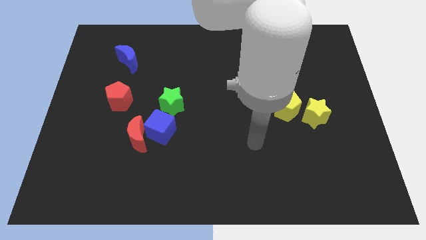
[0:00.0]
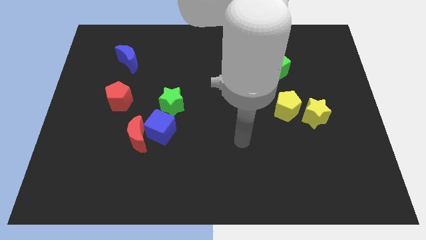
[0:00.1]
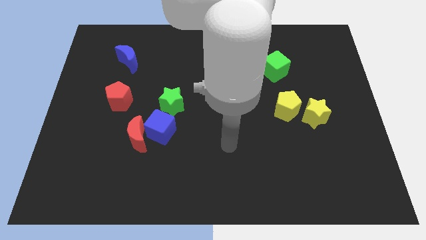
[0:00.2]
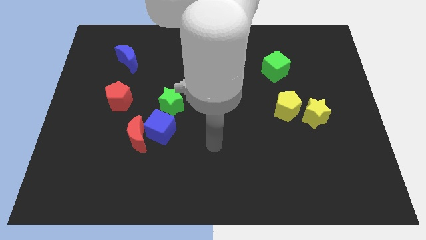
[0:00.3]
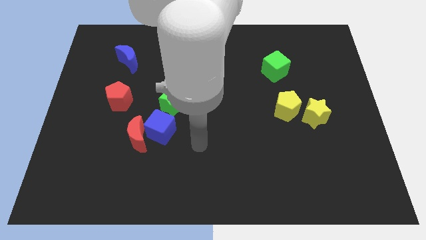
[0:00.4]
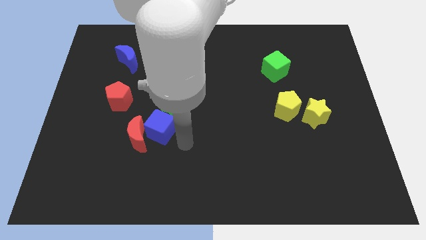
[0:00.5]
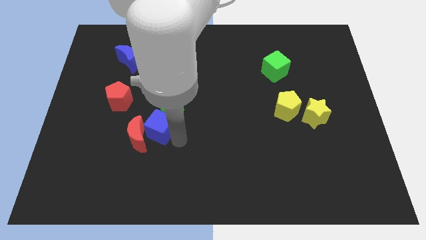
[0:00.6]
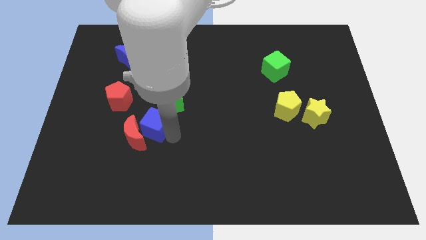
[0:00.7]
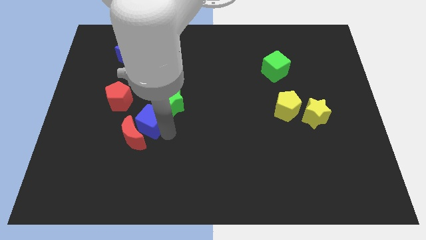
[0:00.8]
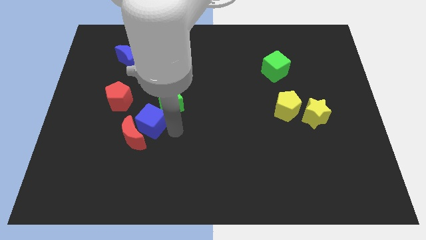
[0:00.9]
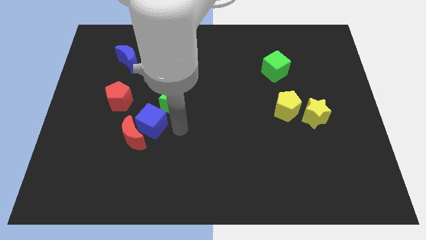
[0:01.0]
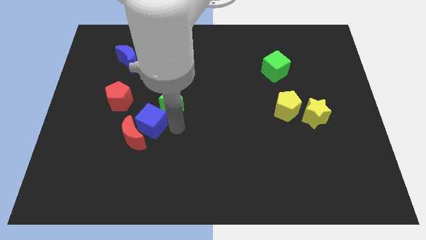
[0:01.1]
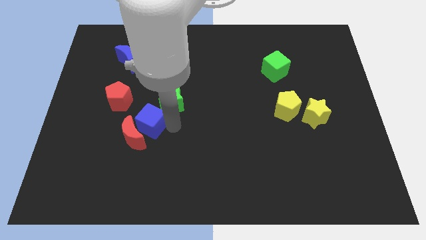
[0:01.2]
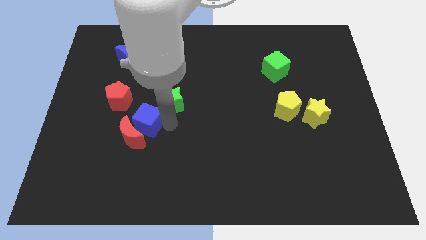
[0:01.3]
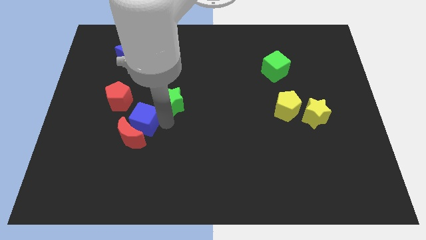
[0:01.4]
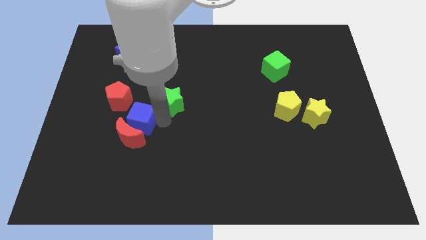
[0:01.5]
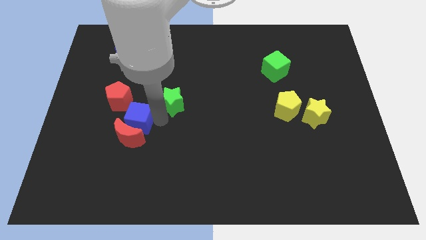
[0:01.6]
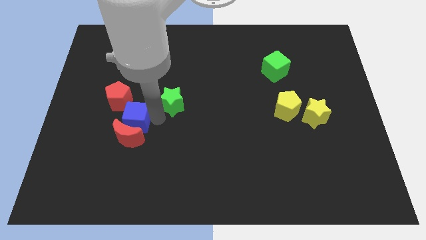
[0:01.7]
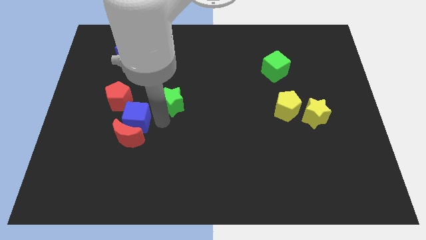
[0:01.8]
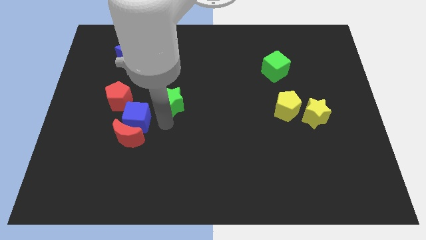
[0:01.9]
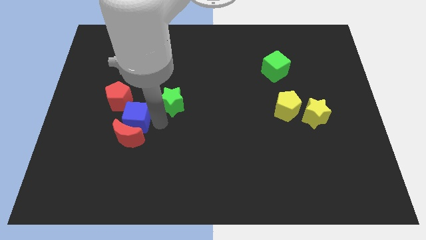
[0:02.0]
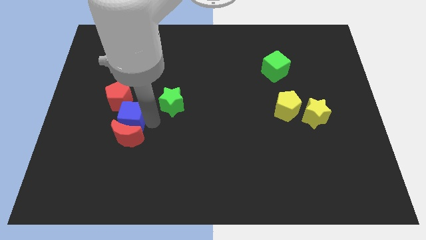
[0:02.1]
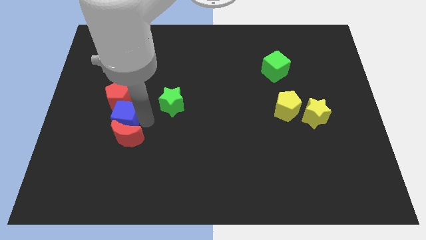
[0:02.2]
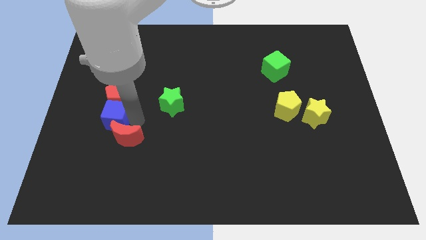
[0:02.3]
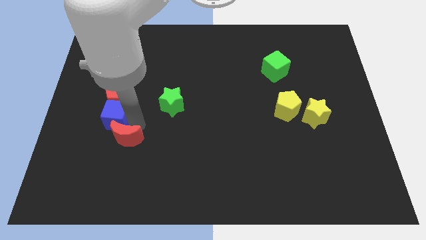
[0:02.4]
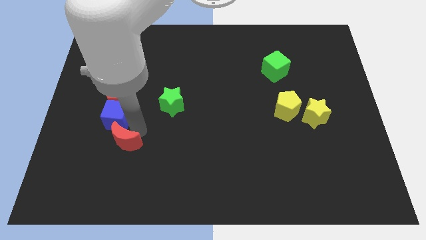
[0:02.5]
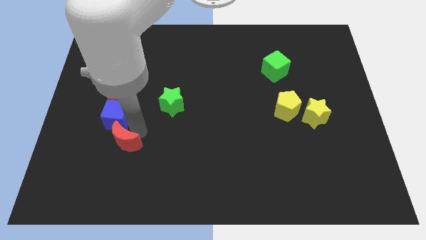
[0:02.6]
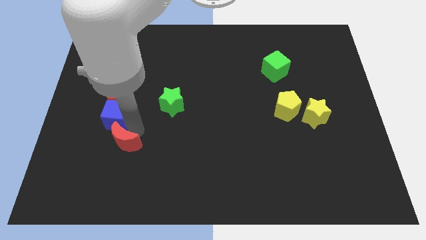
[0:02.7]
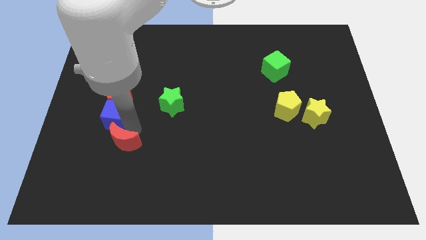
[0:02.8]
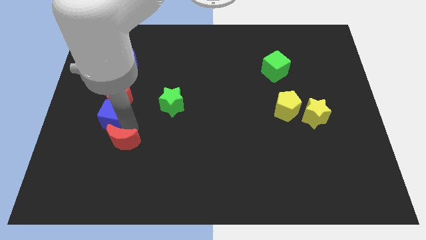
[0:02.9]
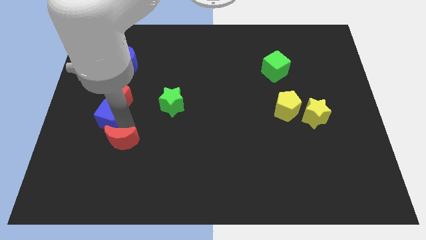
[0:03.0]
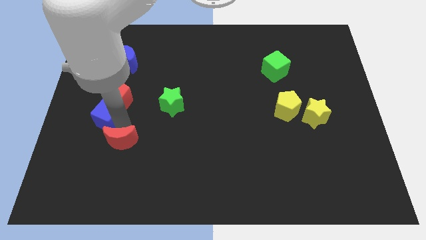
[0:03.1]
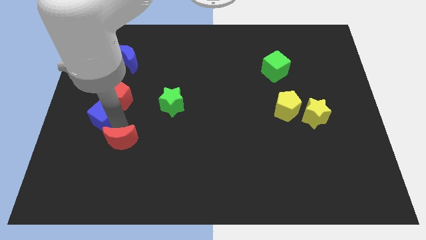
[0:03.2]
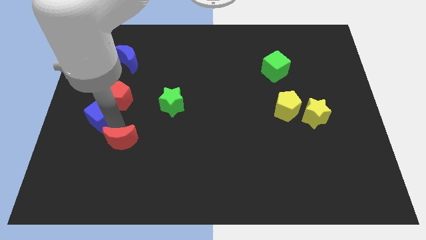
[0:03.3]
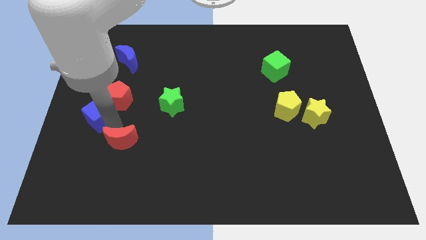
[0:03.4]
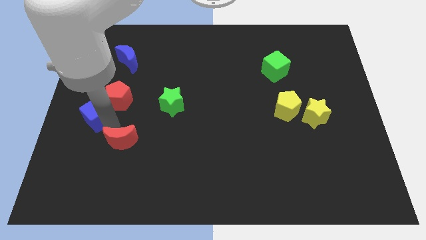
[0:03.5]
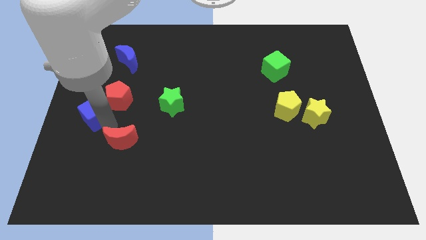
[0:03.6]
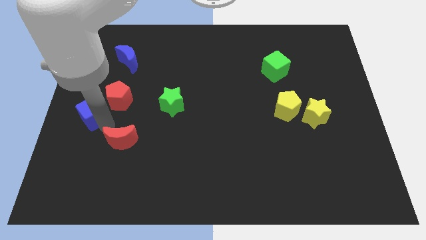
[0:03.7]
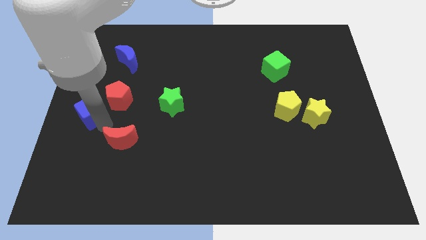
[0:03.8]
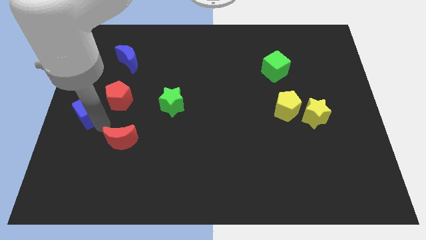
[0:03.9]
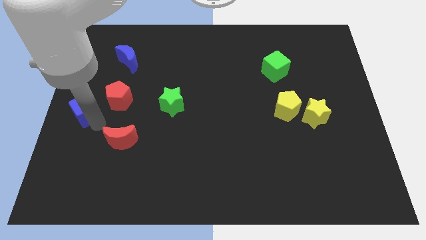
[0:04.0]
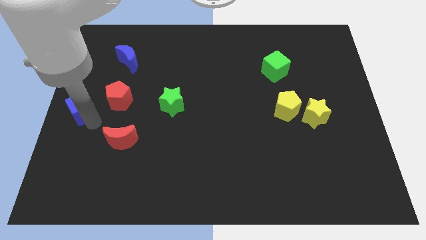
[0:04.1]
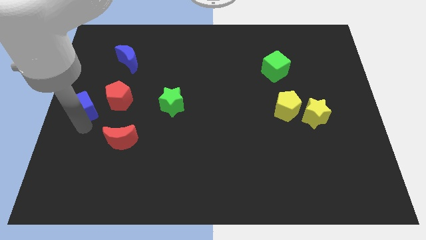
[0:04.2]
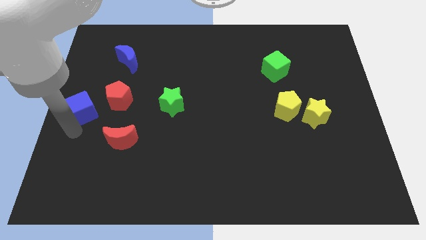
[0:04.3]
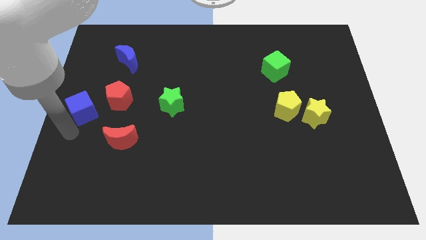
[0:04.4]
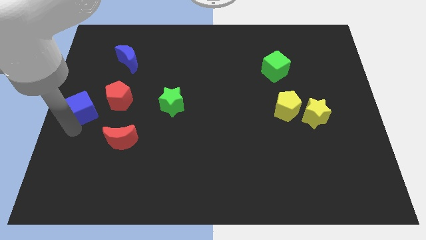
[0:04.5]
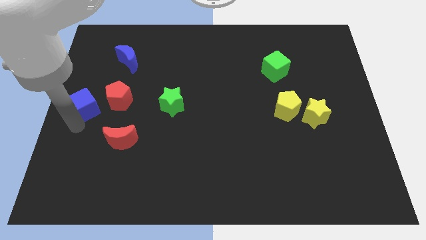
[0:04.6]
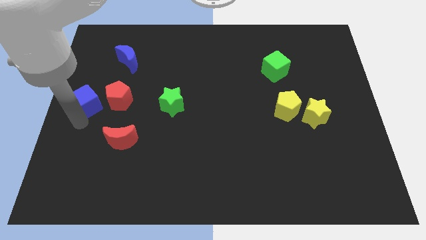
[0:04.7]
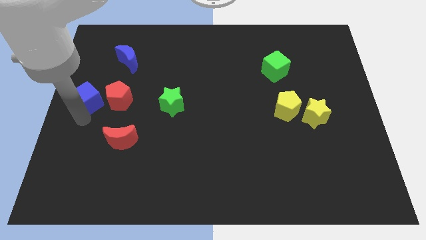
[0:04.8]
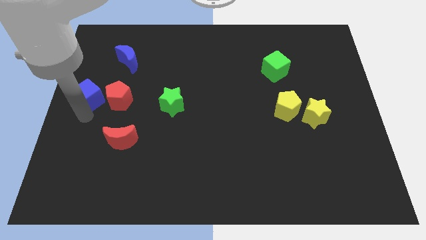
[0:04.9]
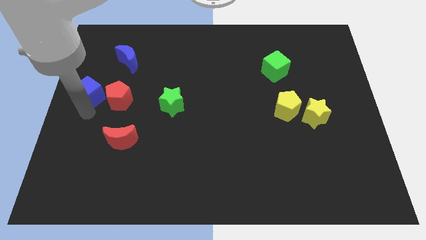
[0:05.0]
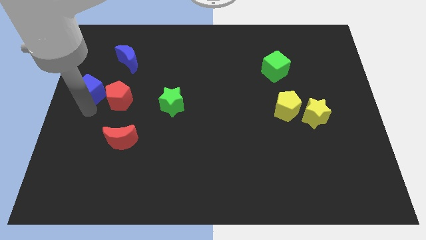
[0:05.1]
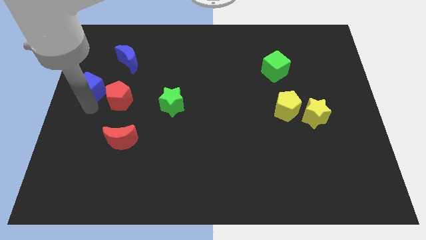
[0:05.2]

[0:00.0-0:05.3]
slide the blue cube diagonally down and to the left of the blue moon

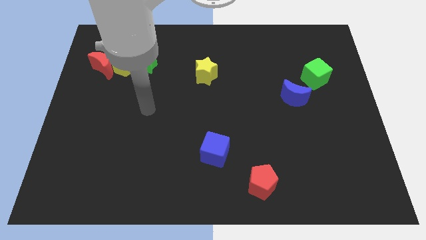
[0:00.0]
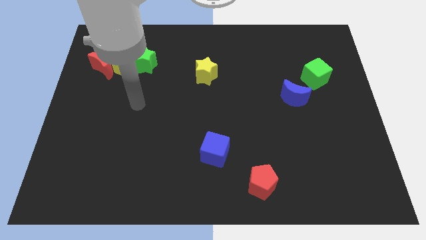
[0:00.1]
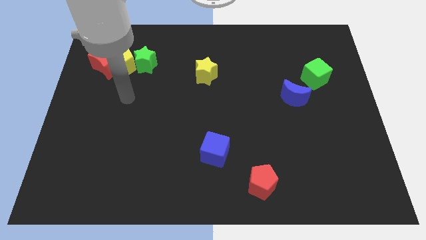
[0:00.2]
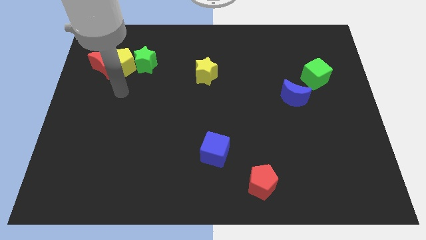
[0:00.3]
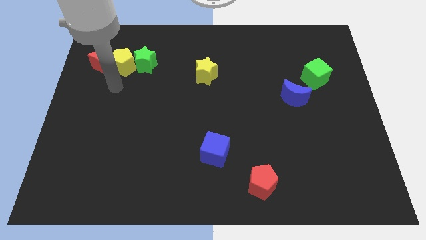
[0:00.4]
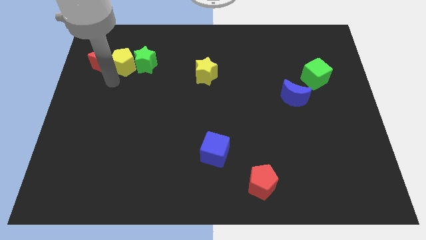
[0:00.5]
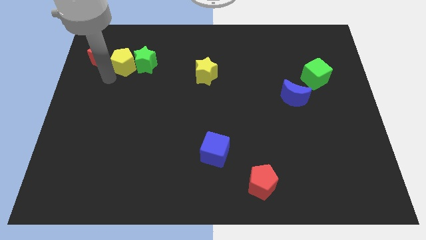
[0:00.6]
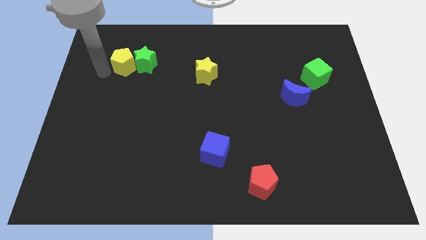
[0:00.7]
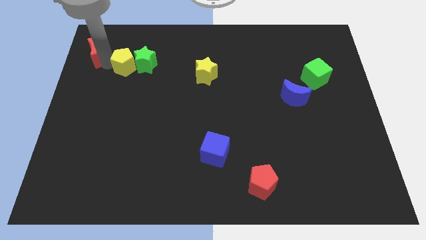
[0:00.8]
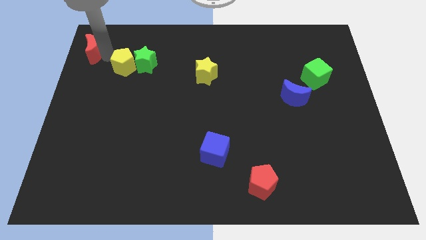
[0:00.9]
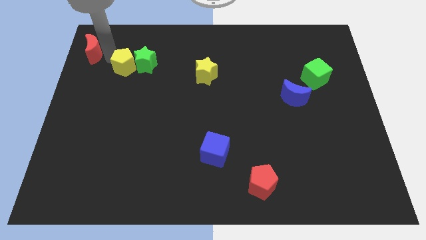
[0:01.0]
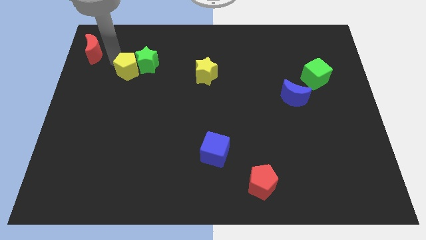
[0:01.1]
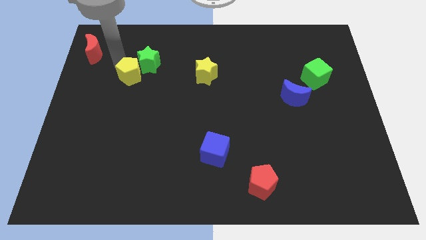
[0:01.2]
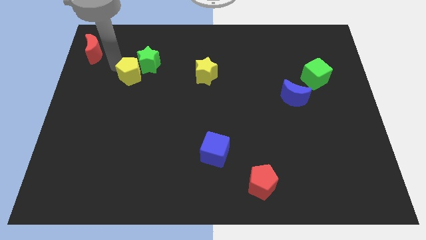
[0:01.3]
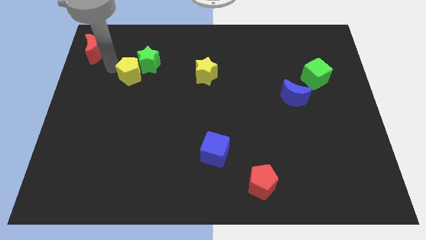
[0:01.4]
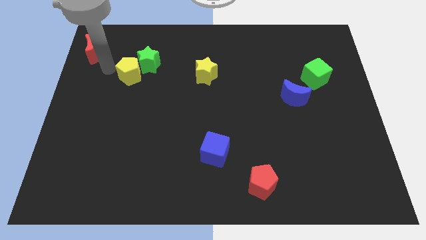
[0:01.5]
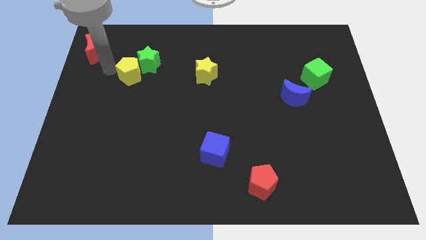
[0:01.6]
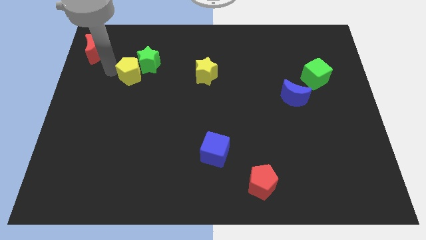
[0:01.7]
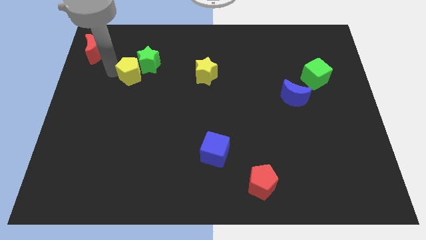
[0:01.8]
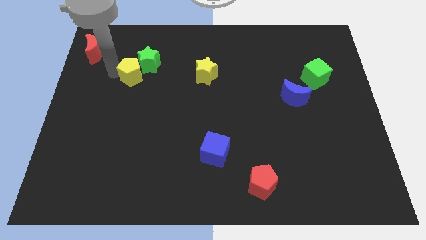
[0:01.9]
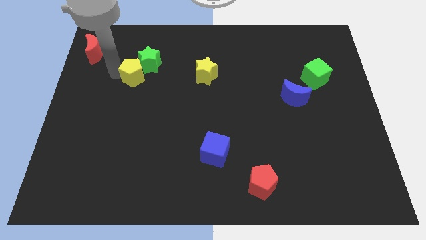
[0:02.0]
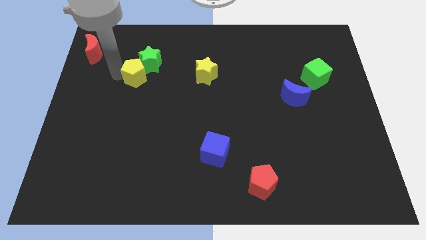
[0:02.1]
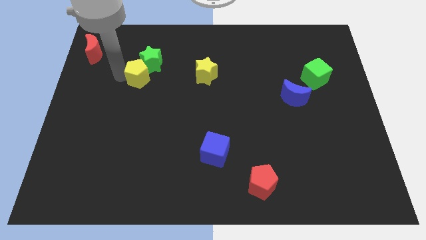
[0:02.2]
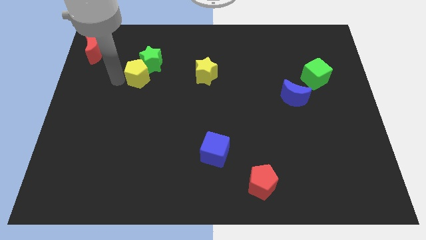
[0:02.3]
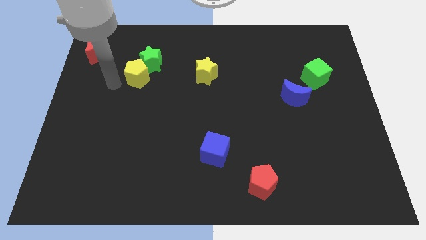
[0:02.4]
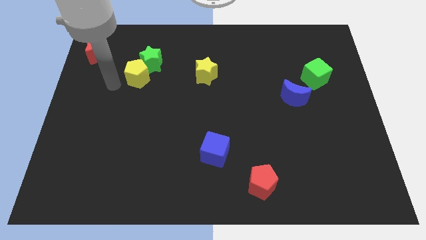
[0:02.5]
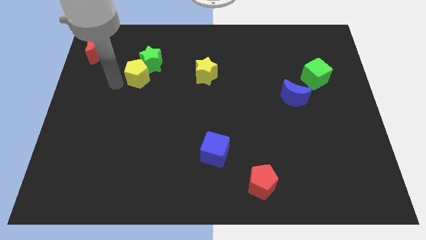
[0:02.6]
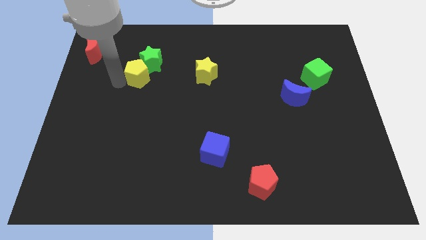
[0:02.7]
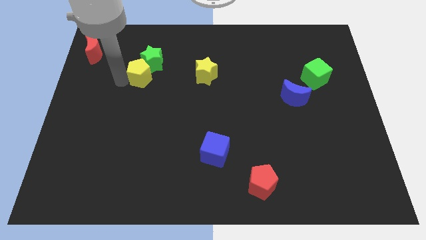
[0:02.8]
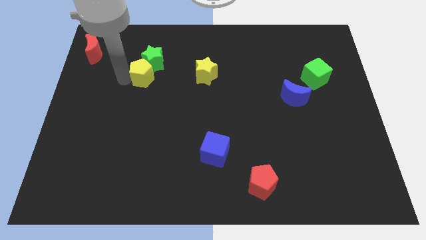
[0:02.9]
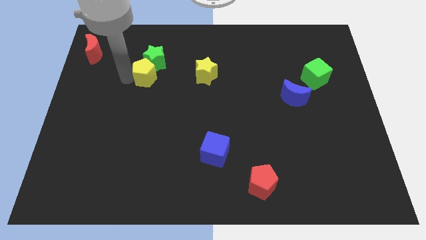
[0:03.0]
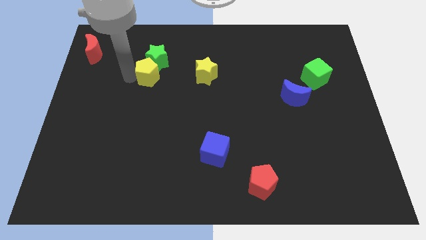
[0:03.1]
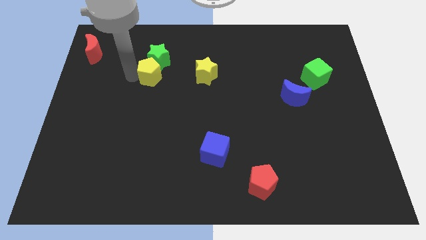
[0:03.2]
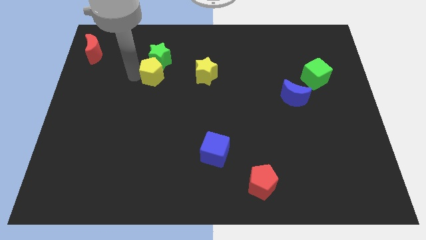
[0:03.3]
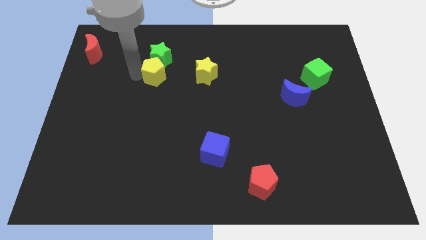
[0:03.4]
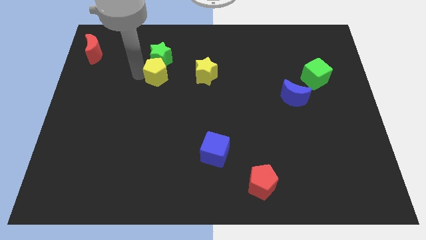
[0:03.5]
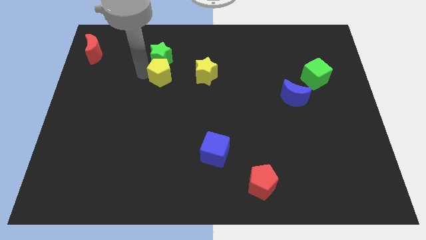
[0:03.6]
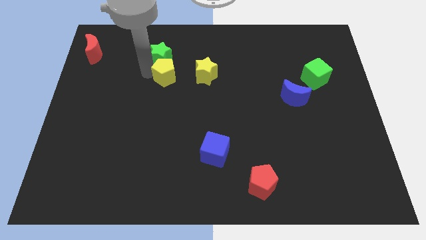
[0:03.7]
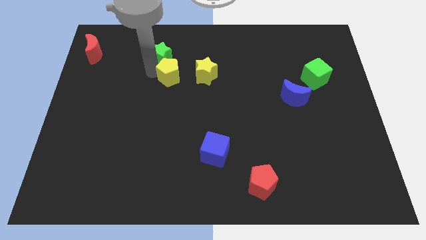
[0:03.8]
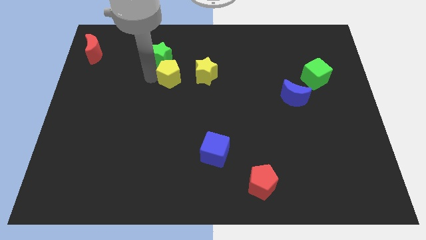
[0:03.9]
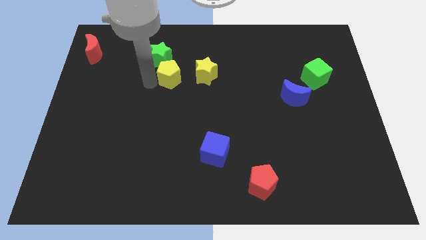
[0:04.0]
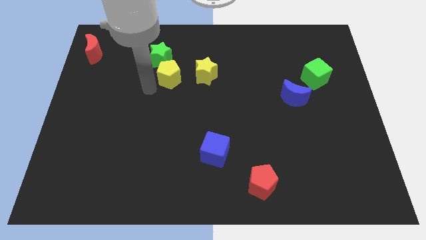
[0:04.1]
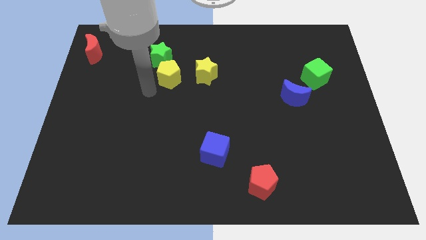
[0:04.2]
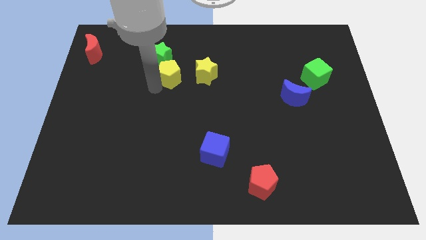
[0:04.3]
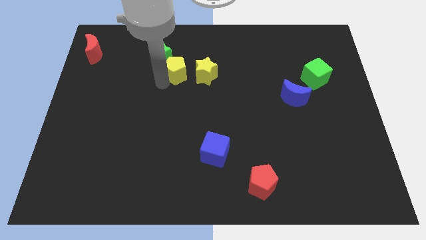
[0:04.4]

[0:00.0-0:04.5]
slide the yellow pentagon right of the green star
